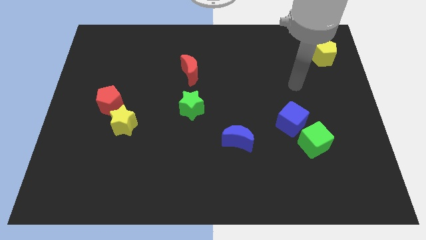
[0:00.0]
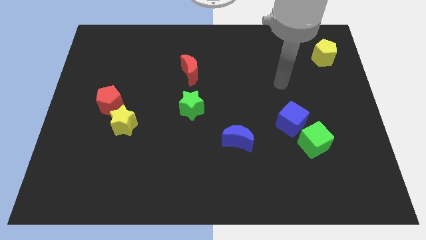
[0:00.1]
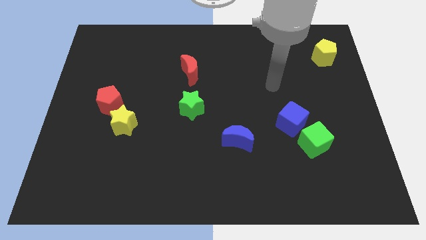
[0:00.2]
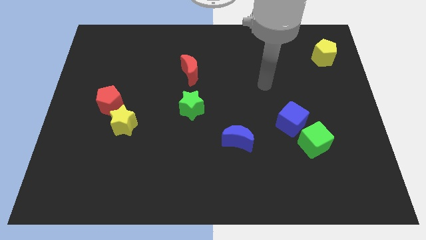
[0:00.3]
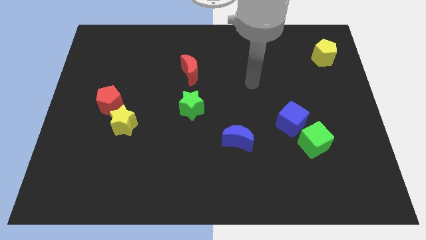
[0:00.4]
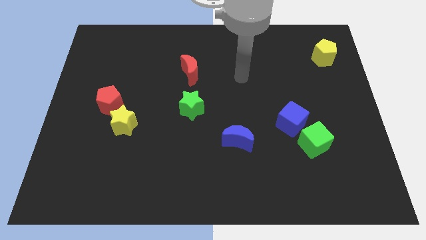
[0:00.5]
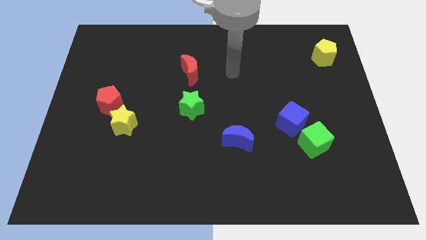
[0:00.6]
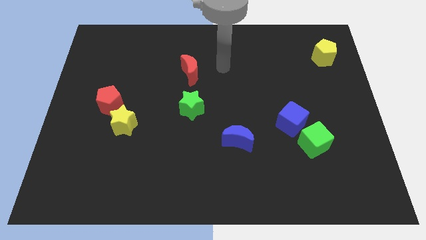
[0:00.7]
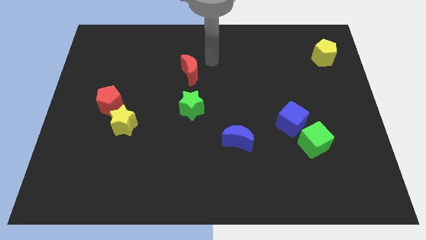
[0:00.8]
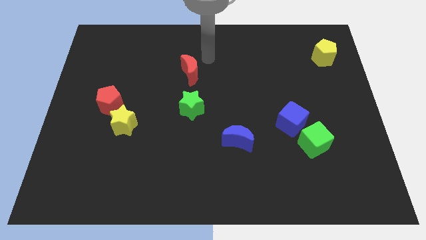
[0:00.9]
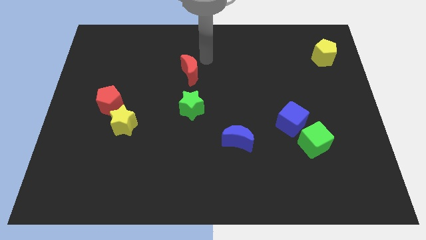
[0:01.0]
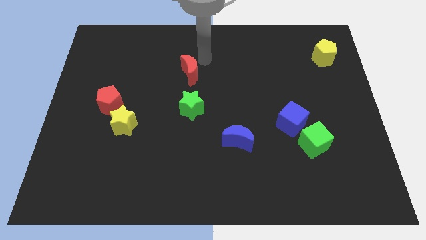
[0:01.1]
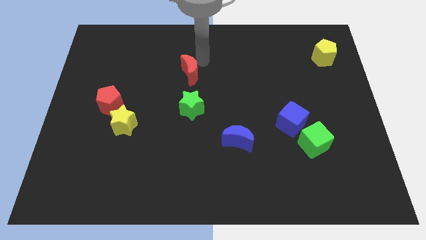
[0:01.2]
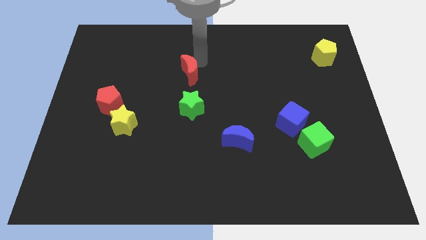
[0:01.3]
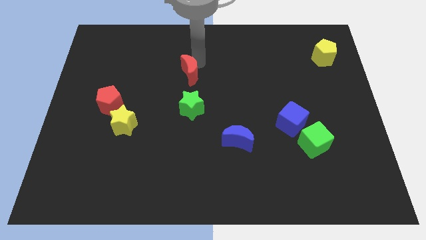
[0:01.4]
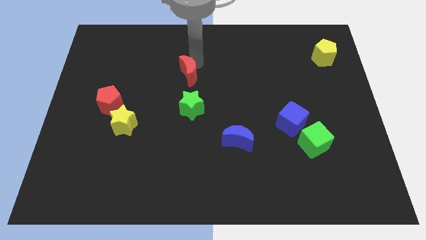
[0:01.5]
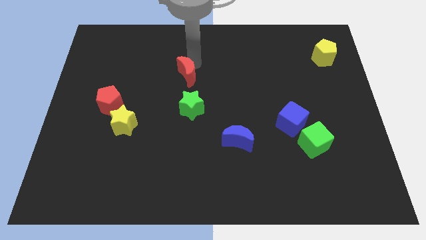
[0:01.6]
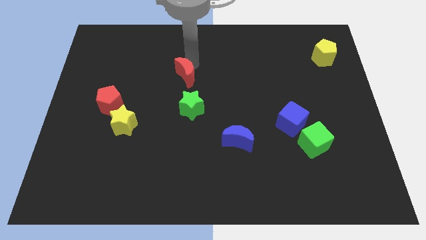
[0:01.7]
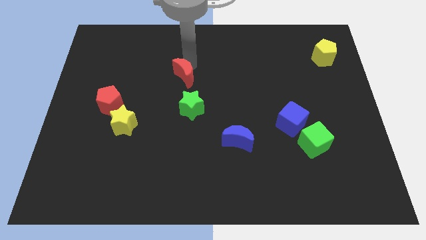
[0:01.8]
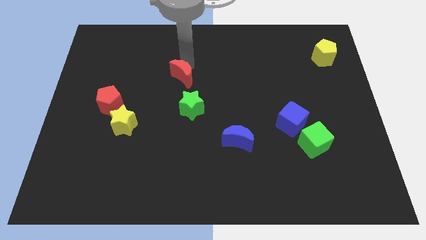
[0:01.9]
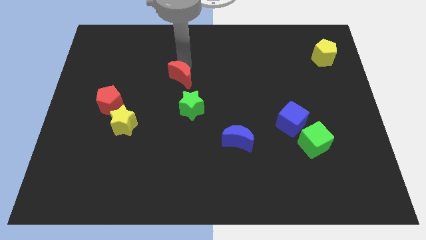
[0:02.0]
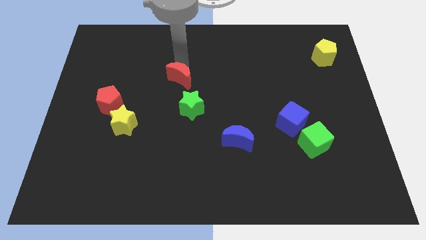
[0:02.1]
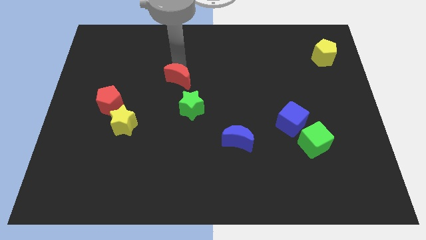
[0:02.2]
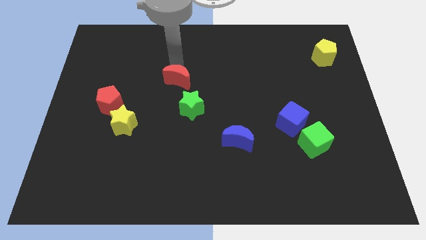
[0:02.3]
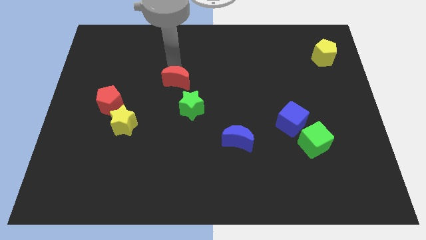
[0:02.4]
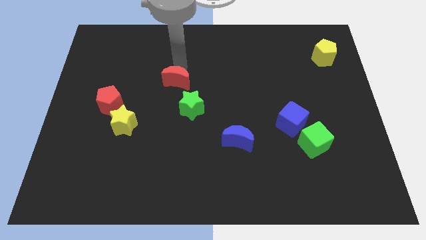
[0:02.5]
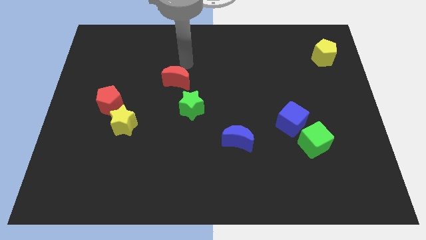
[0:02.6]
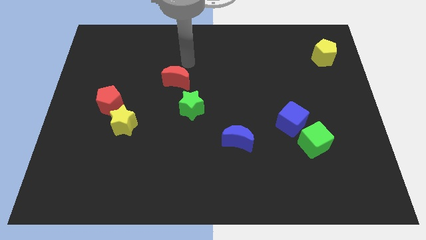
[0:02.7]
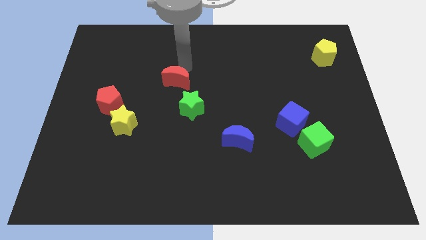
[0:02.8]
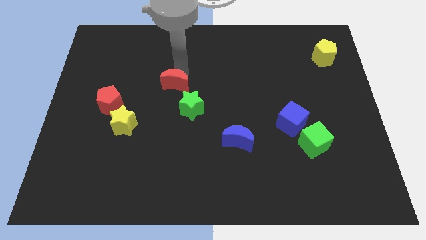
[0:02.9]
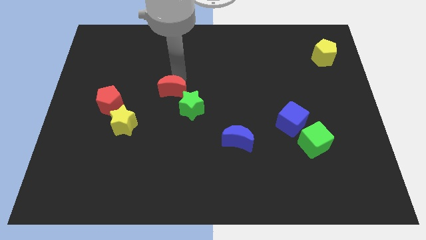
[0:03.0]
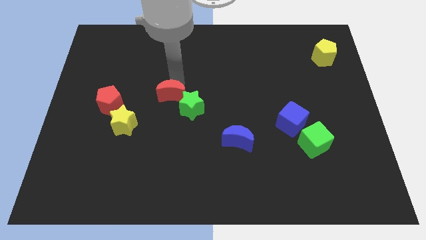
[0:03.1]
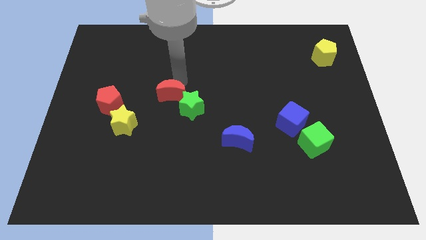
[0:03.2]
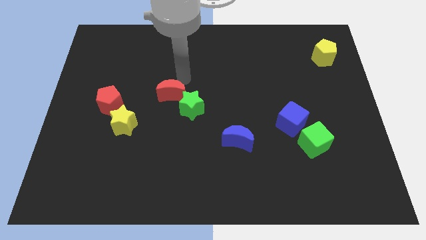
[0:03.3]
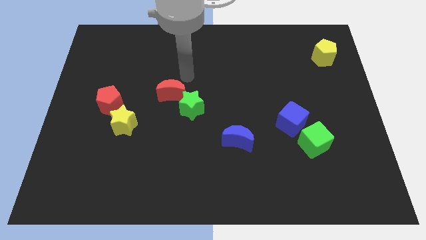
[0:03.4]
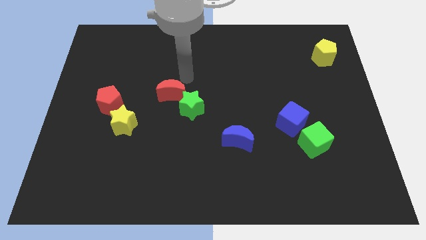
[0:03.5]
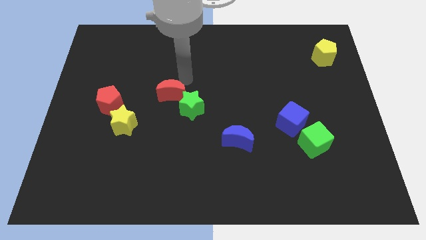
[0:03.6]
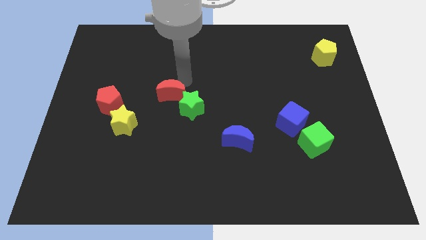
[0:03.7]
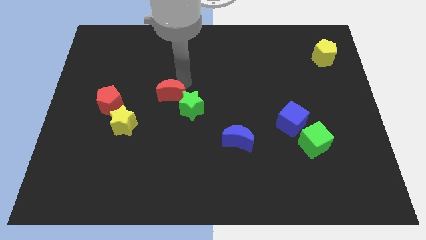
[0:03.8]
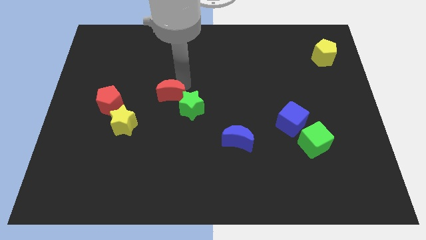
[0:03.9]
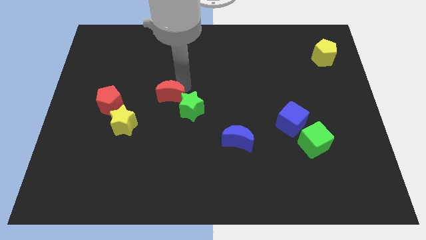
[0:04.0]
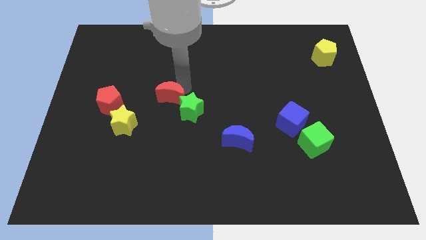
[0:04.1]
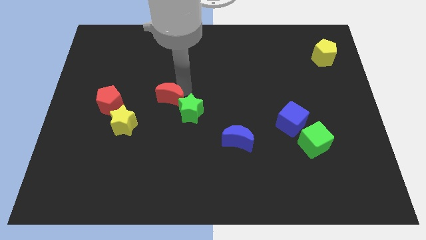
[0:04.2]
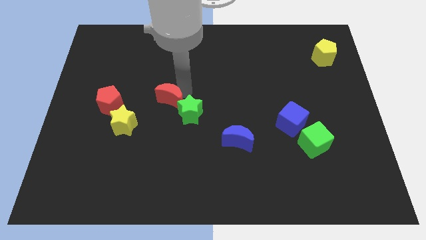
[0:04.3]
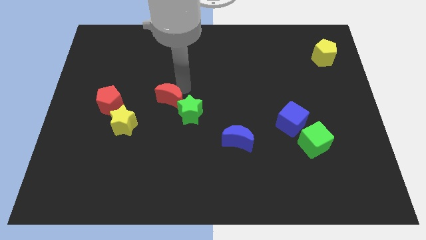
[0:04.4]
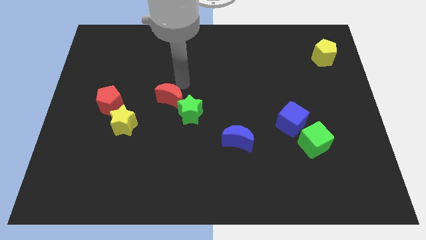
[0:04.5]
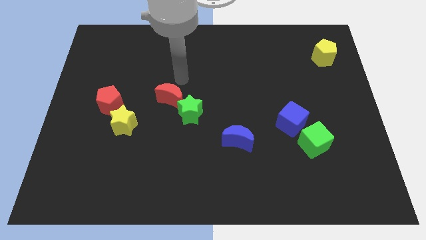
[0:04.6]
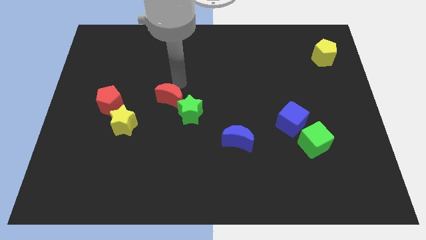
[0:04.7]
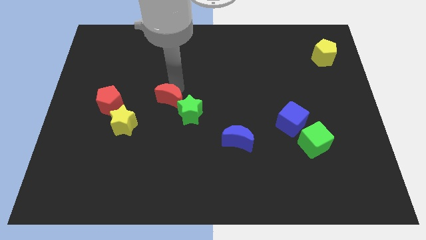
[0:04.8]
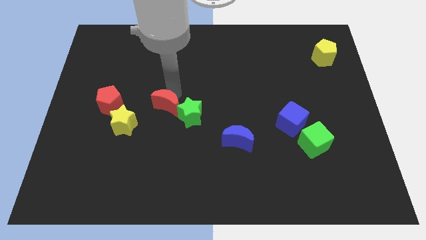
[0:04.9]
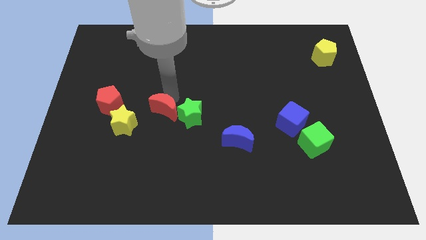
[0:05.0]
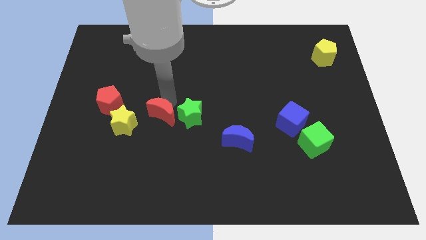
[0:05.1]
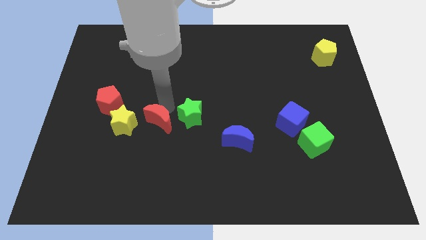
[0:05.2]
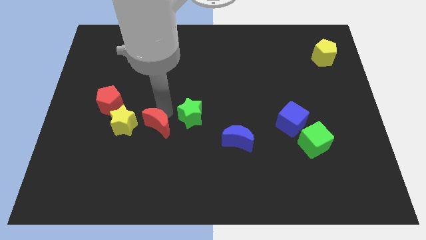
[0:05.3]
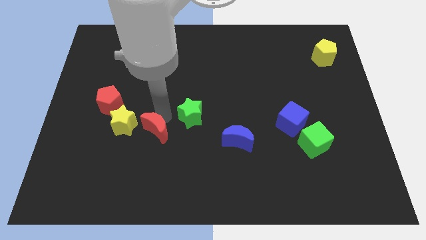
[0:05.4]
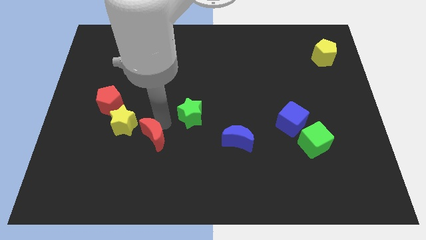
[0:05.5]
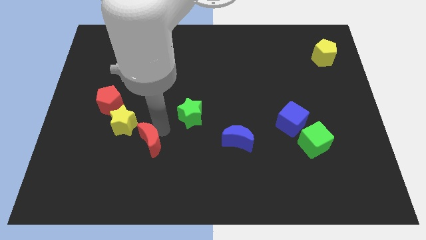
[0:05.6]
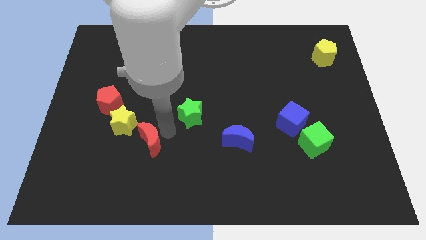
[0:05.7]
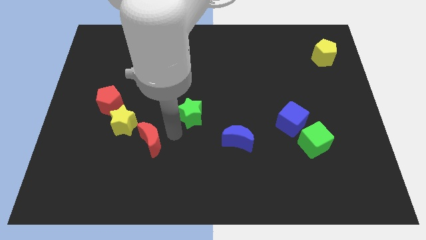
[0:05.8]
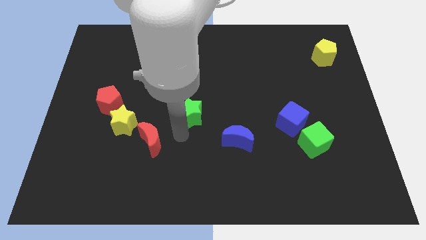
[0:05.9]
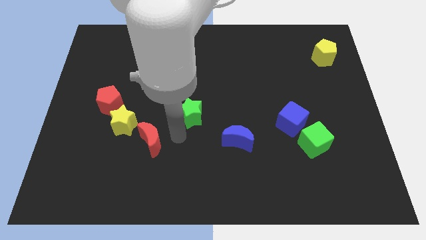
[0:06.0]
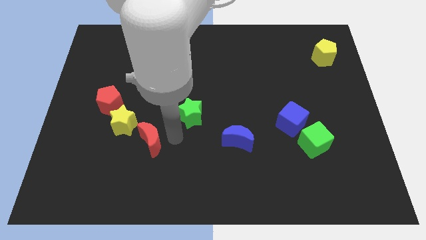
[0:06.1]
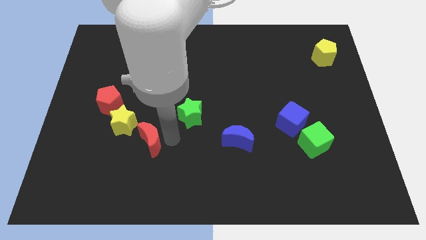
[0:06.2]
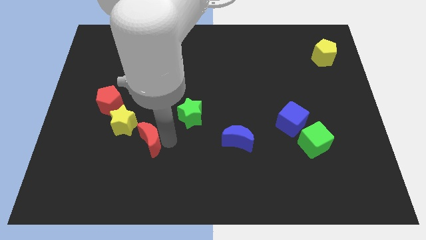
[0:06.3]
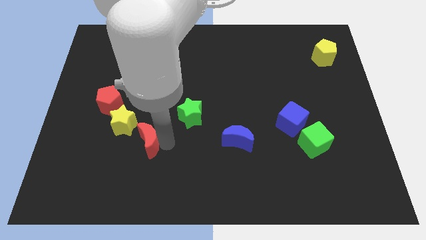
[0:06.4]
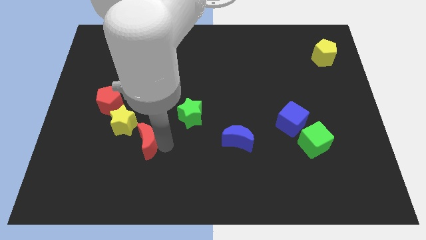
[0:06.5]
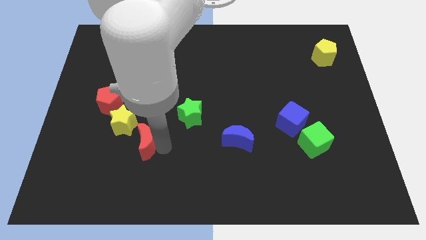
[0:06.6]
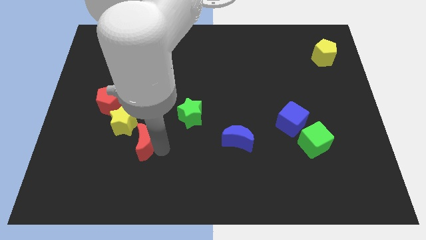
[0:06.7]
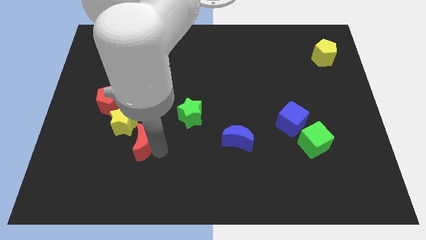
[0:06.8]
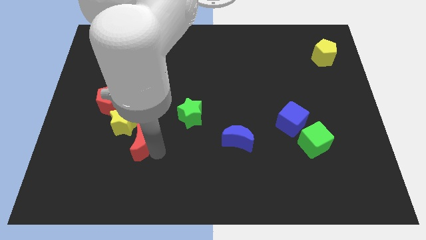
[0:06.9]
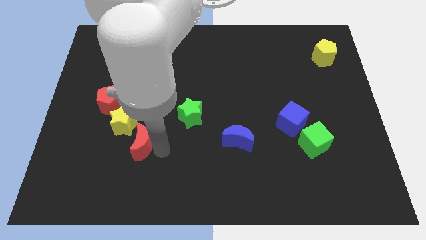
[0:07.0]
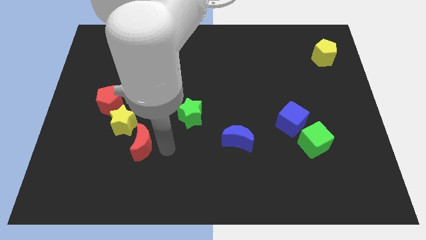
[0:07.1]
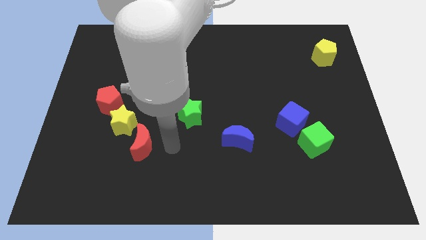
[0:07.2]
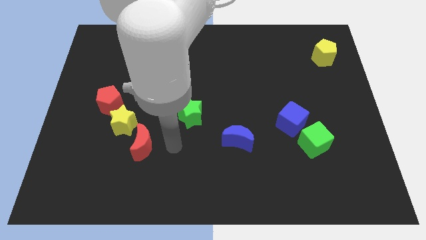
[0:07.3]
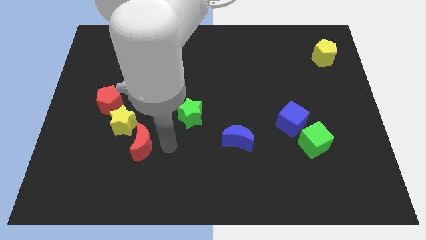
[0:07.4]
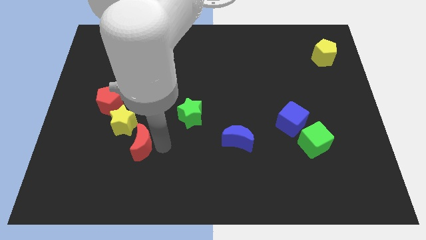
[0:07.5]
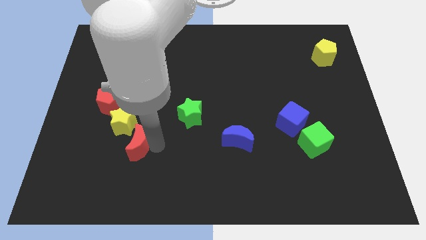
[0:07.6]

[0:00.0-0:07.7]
push the red moon down and left

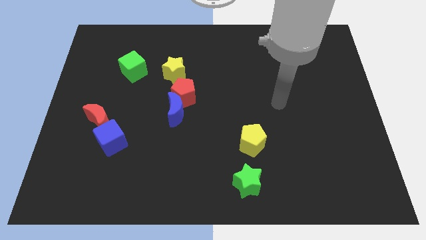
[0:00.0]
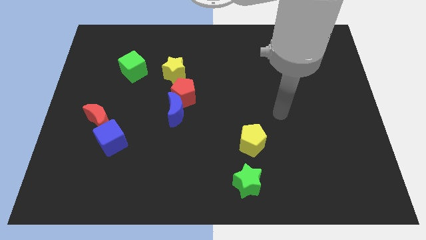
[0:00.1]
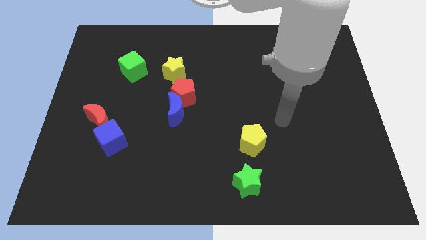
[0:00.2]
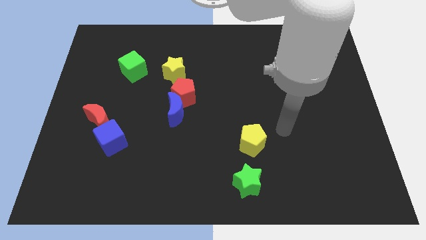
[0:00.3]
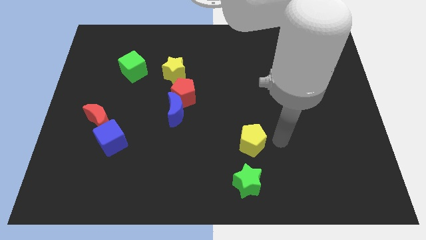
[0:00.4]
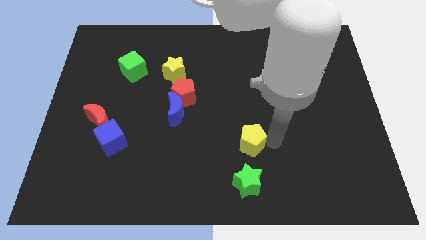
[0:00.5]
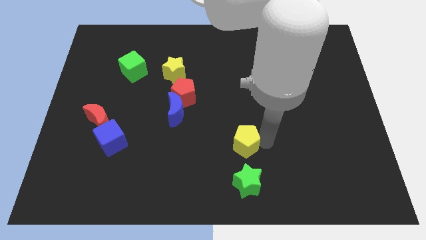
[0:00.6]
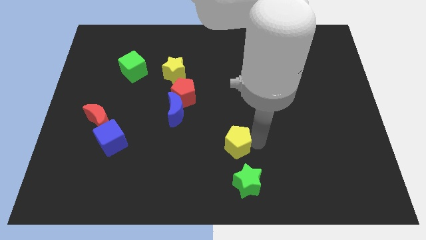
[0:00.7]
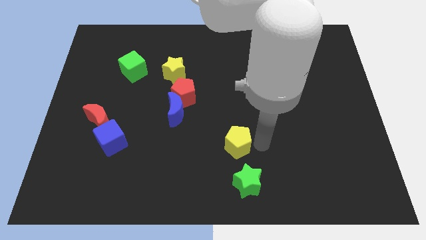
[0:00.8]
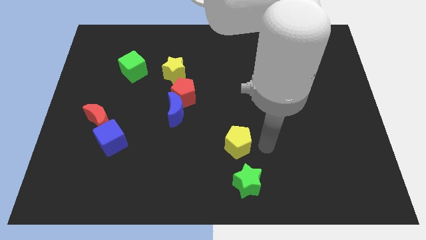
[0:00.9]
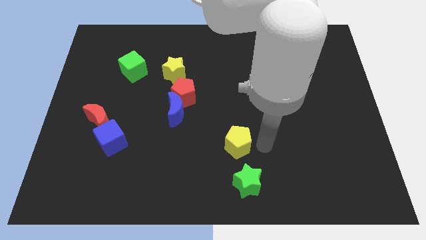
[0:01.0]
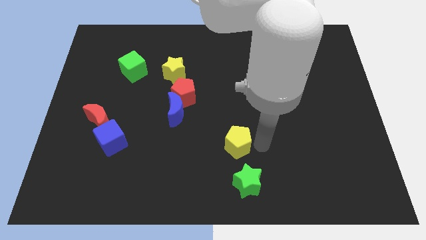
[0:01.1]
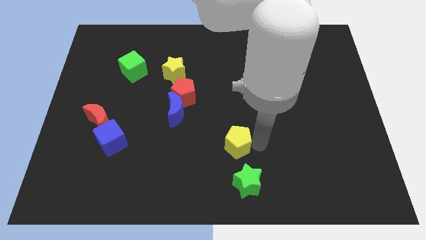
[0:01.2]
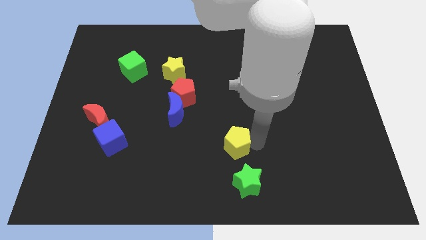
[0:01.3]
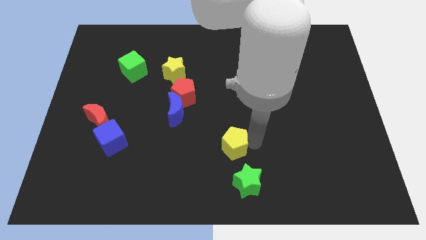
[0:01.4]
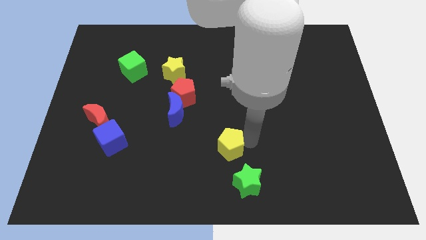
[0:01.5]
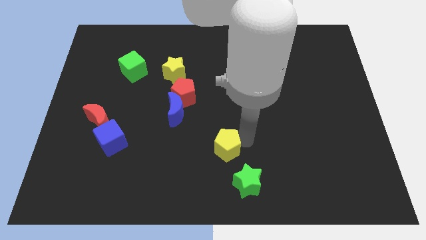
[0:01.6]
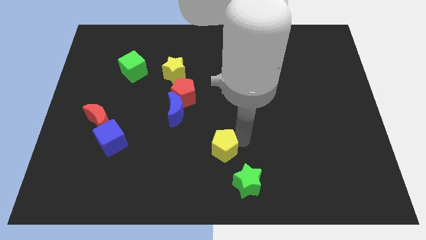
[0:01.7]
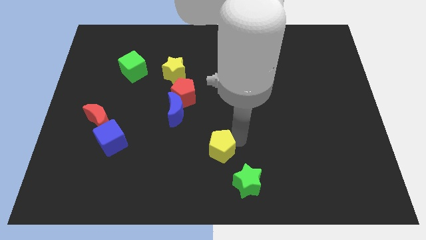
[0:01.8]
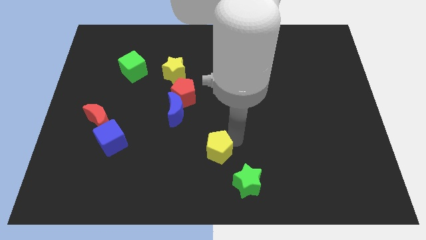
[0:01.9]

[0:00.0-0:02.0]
slide the yellow pentagon a little bit to the left
